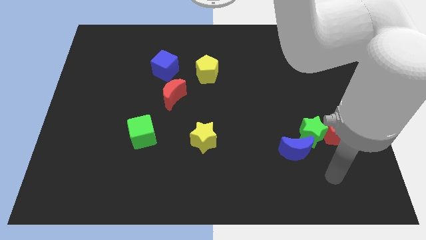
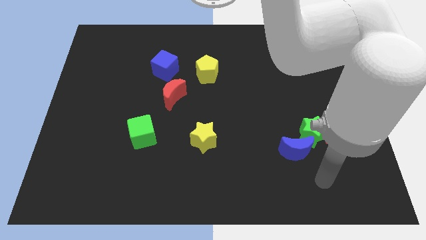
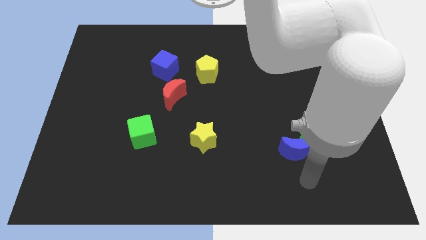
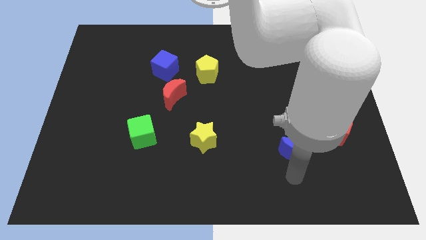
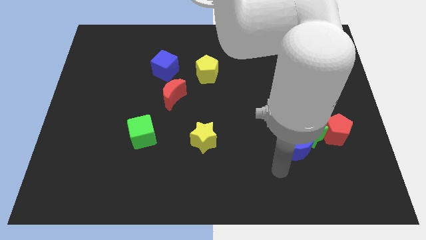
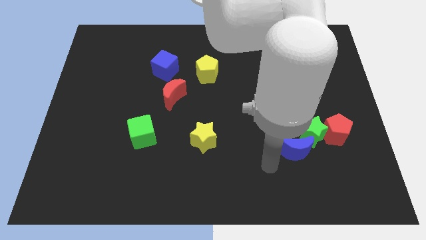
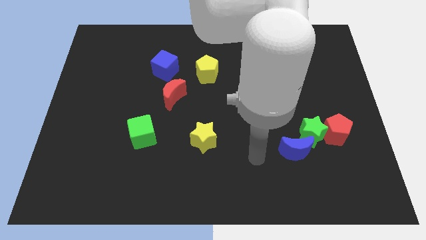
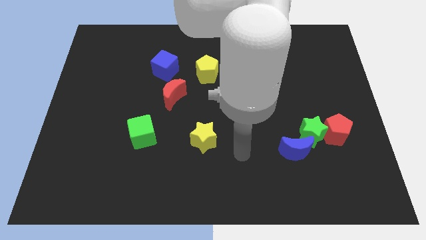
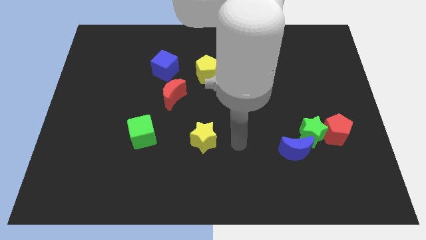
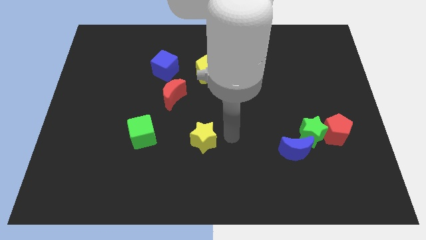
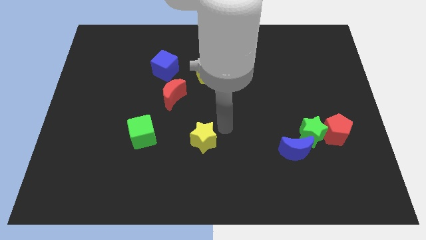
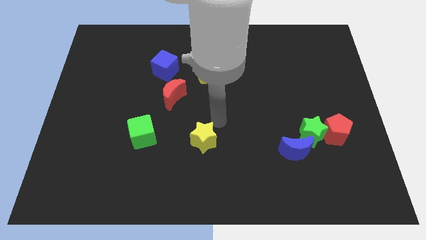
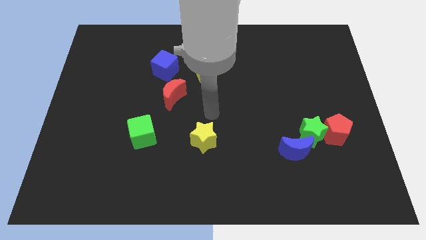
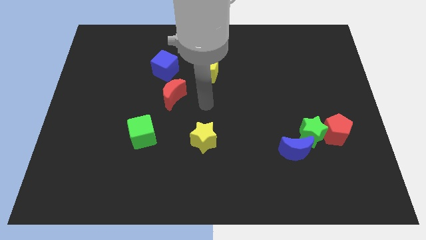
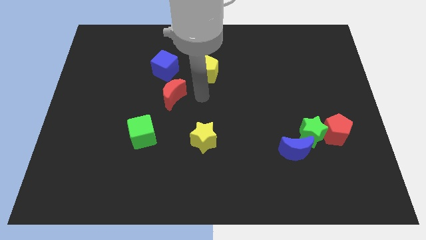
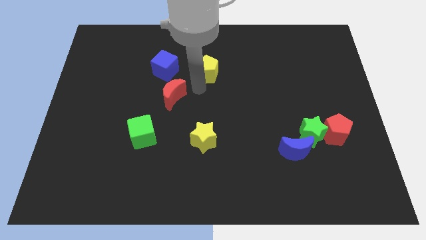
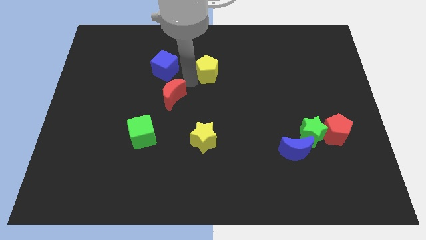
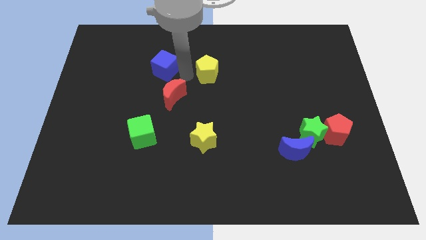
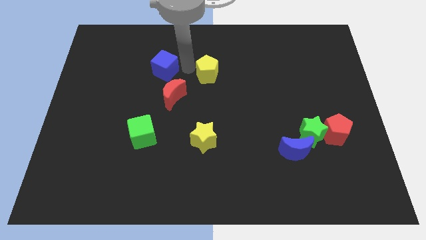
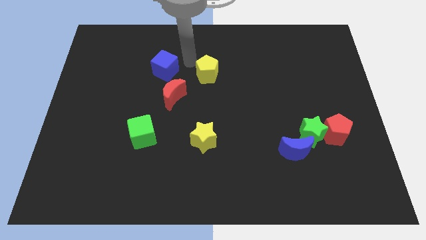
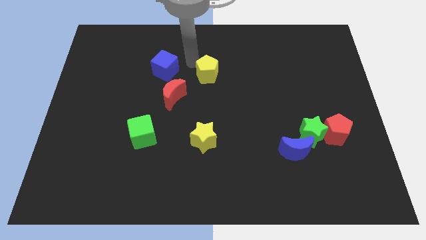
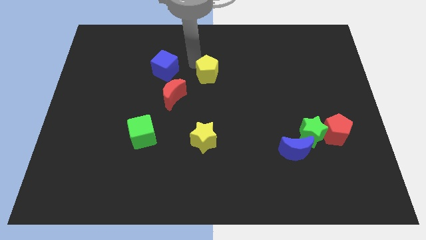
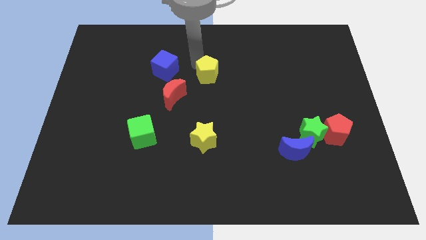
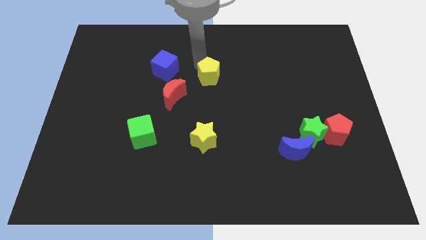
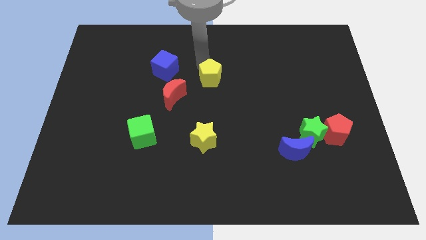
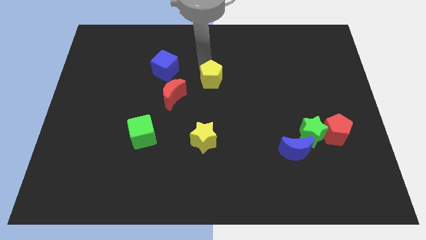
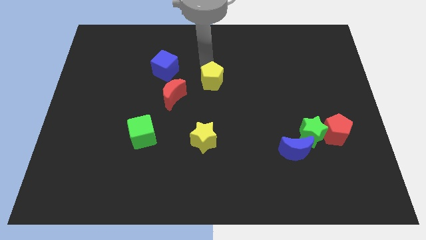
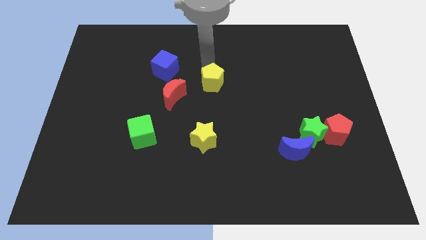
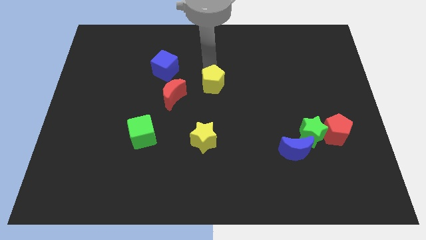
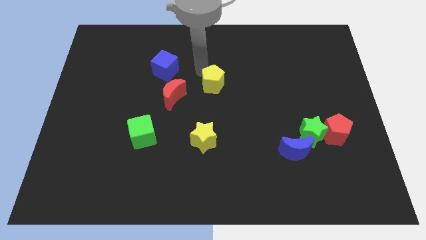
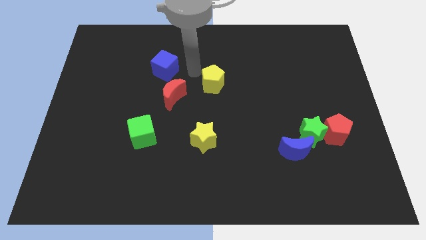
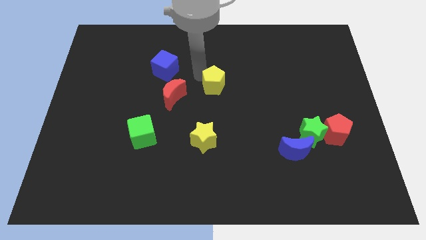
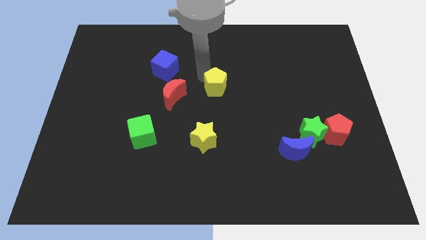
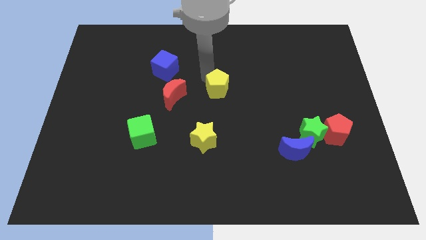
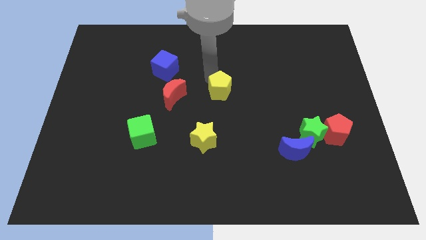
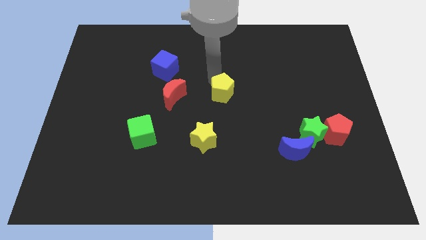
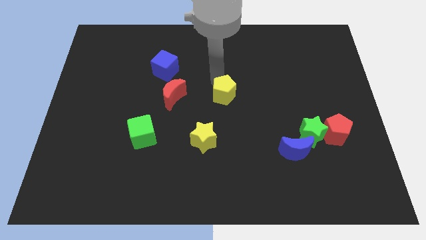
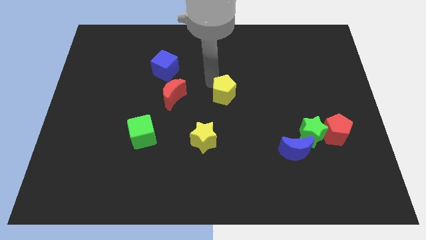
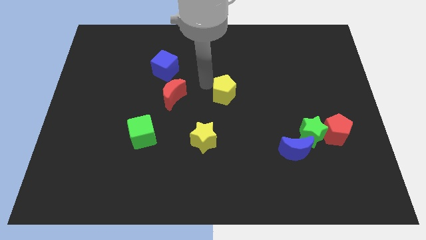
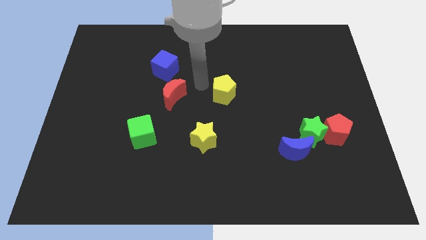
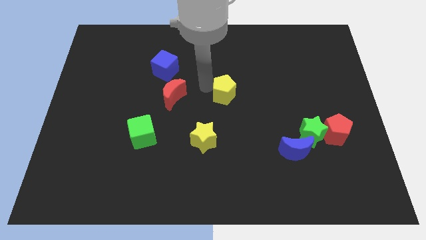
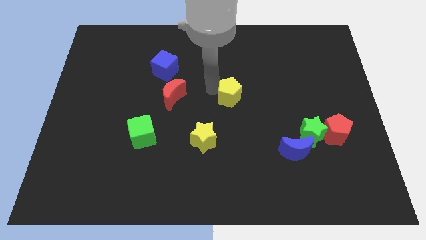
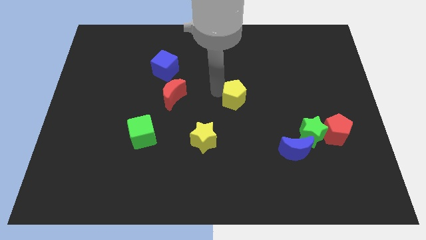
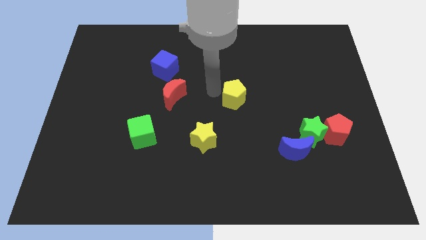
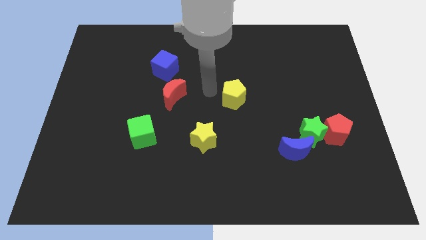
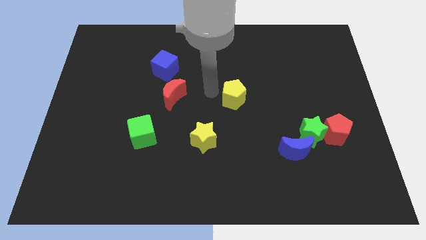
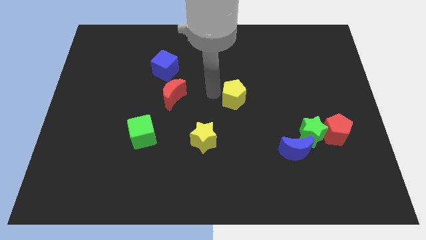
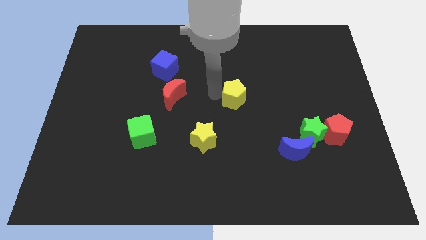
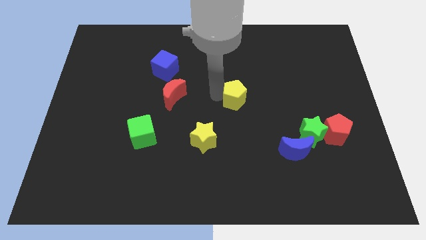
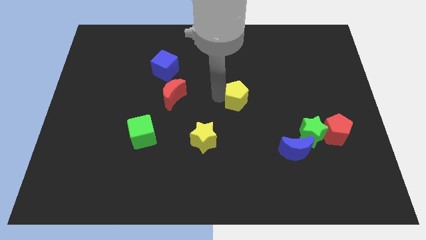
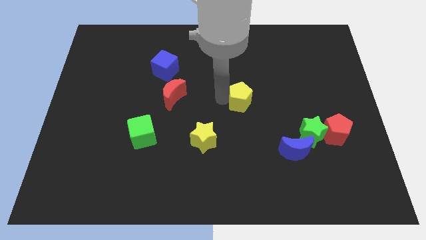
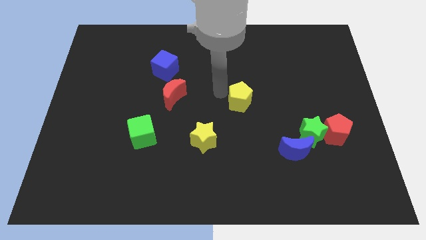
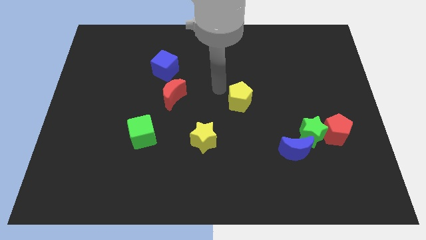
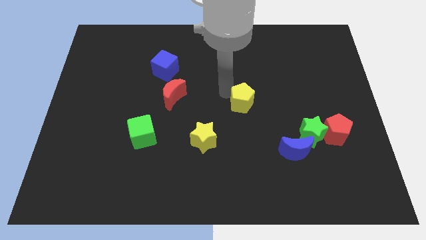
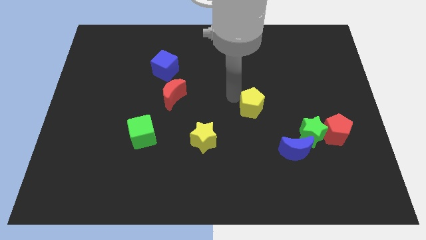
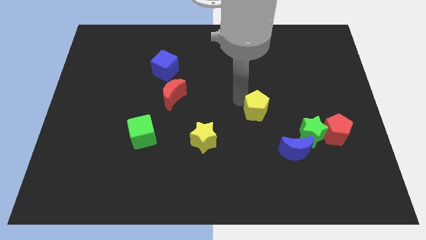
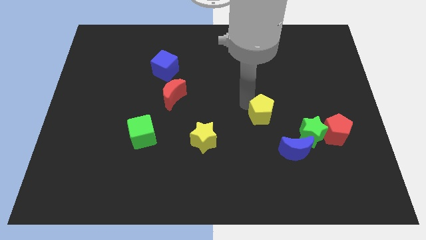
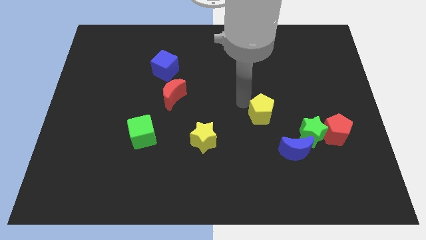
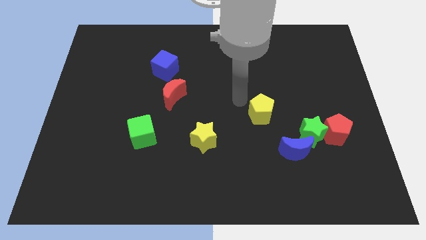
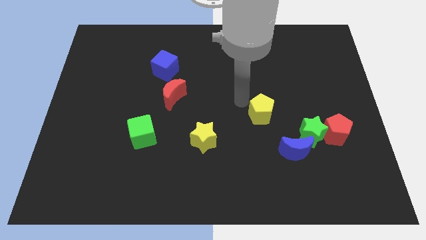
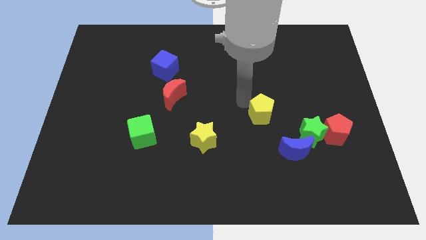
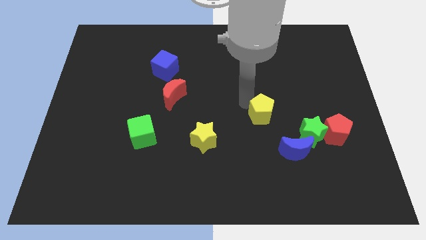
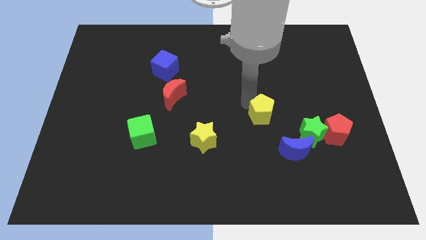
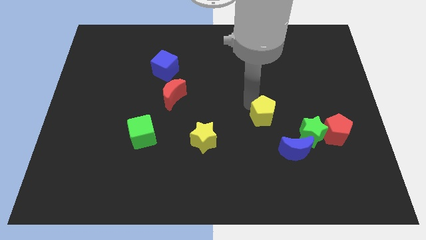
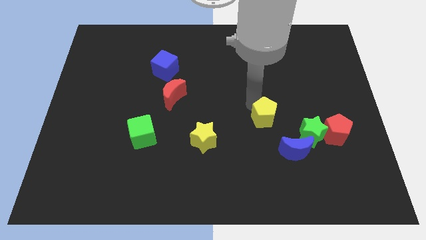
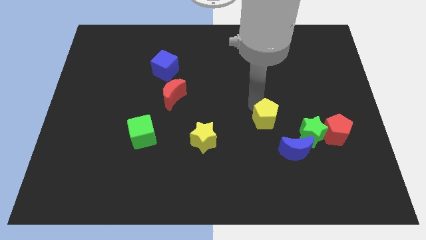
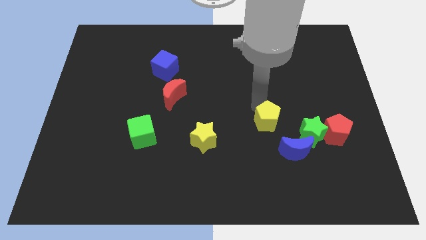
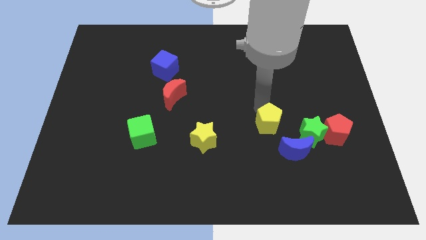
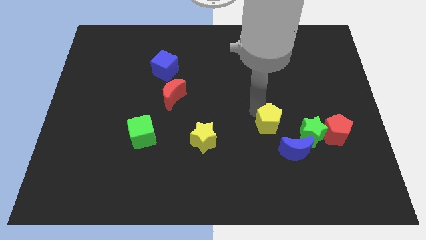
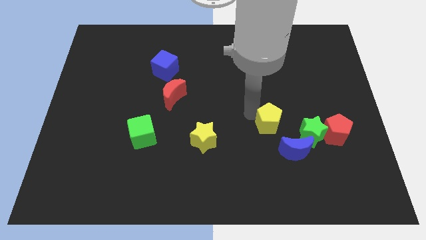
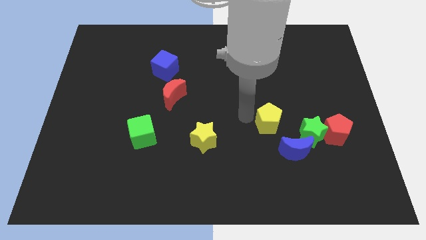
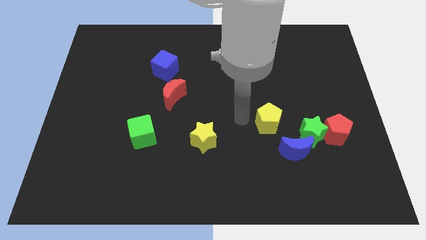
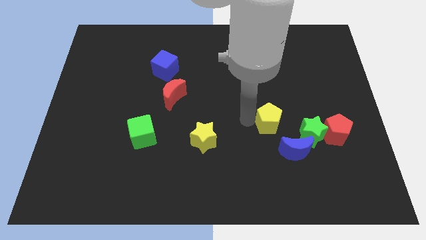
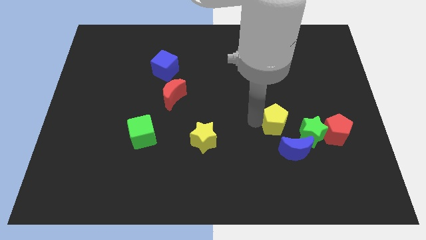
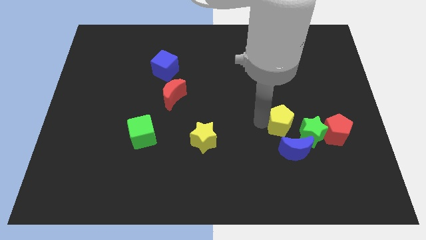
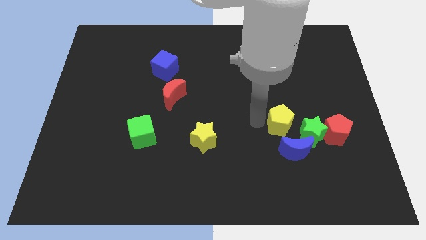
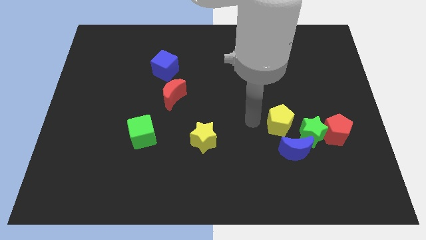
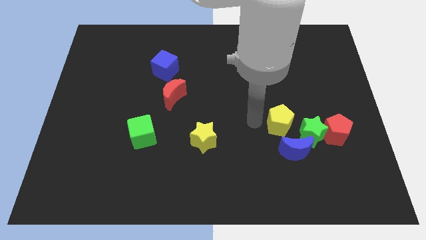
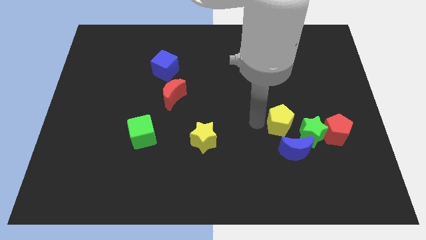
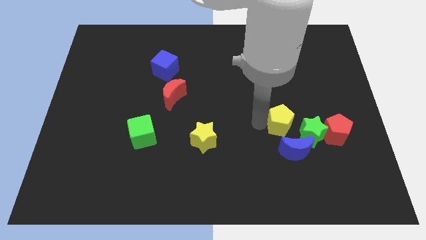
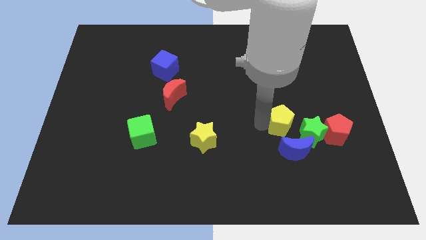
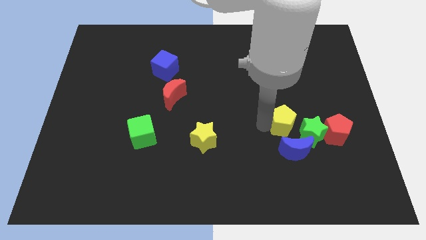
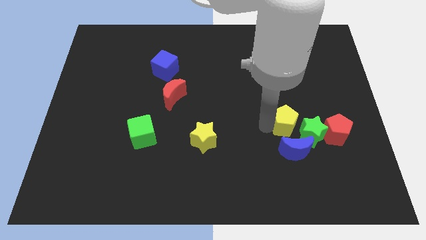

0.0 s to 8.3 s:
move the yellow pentagon next to the green star
